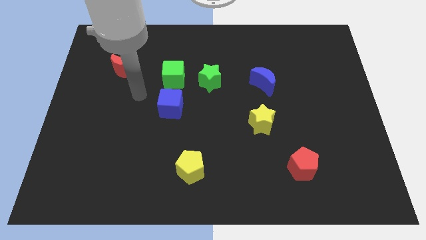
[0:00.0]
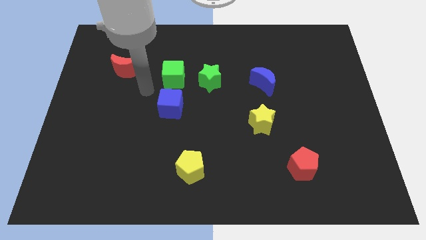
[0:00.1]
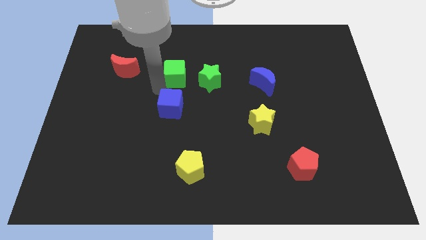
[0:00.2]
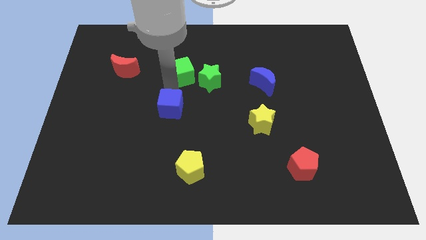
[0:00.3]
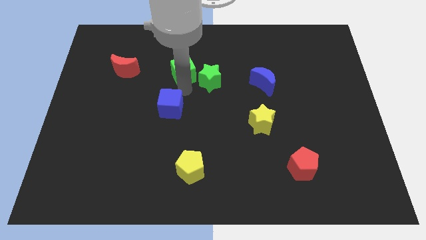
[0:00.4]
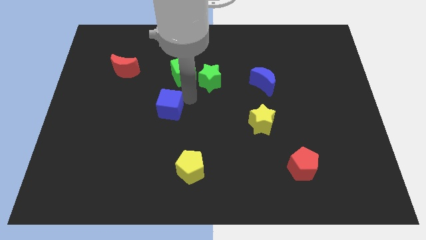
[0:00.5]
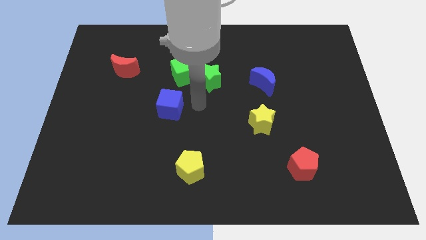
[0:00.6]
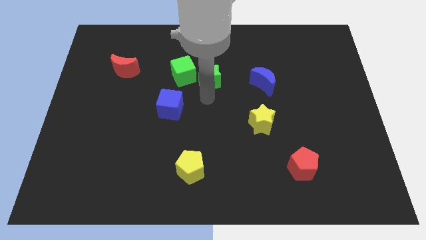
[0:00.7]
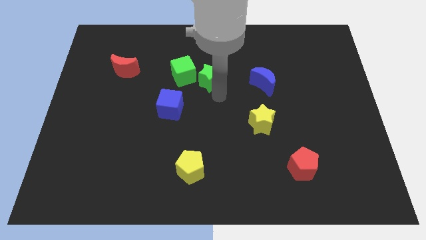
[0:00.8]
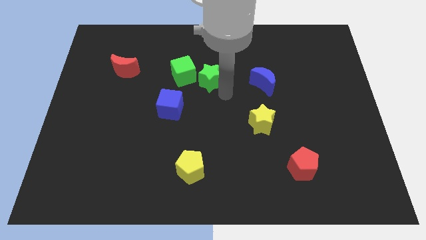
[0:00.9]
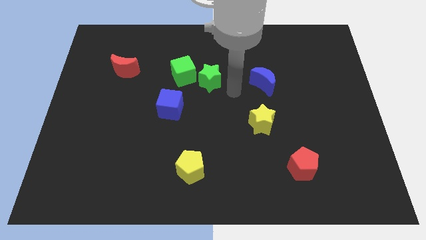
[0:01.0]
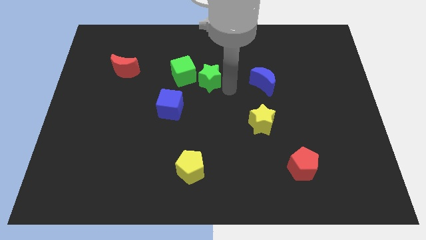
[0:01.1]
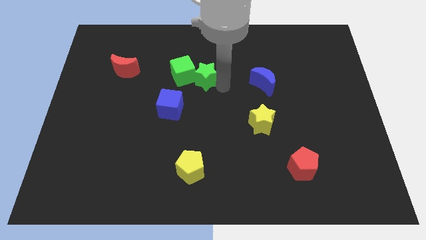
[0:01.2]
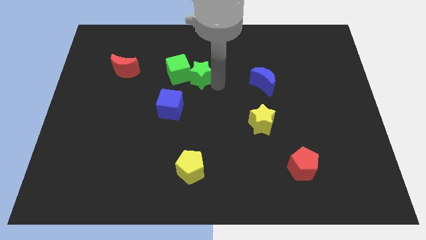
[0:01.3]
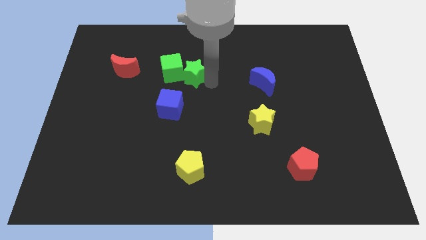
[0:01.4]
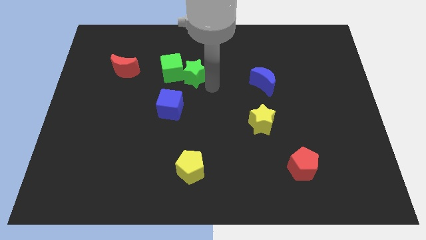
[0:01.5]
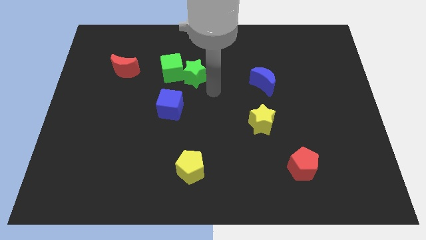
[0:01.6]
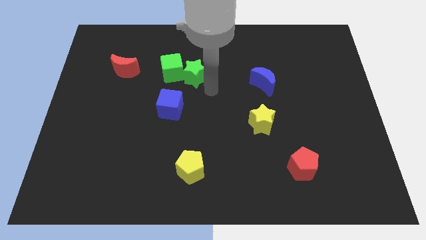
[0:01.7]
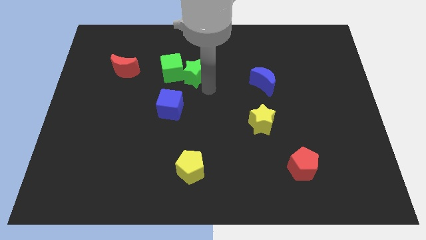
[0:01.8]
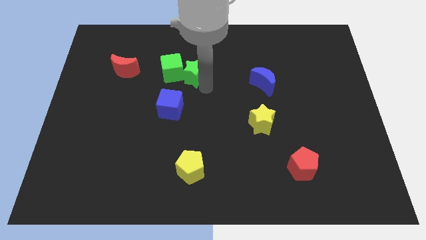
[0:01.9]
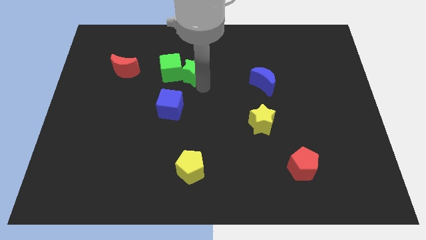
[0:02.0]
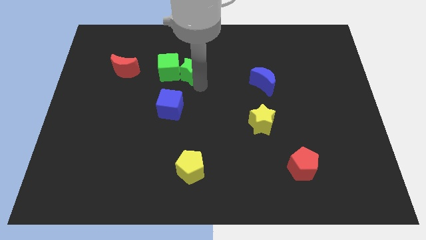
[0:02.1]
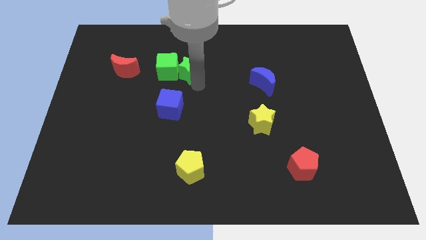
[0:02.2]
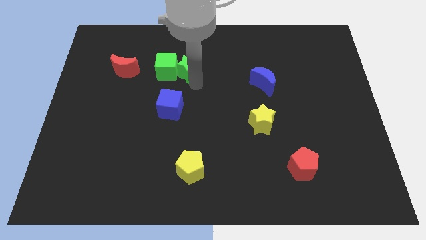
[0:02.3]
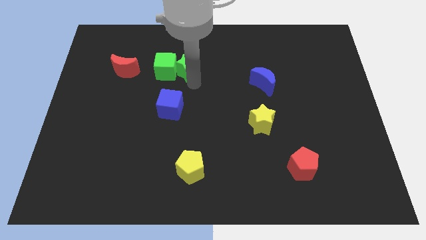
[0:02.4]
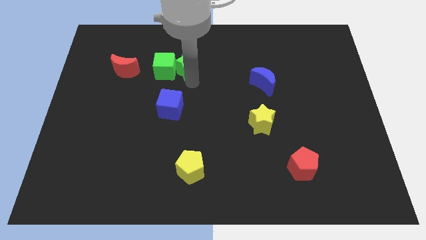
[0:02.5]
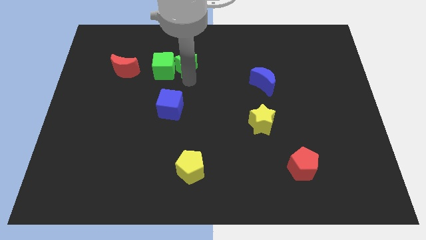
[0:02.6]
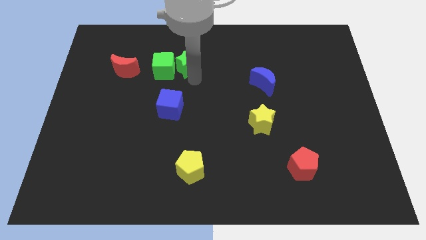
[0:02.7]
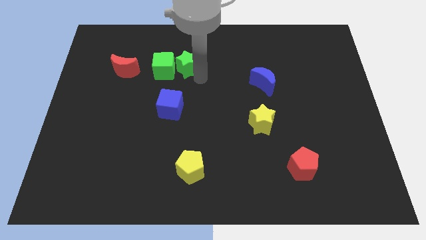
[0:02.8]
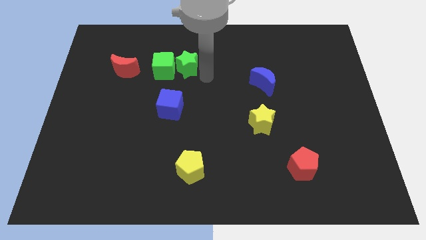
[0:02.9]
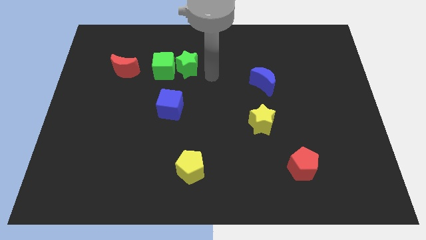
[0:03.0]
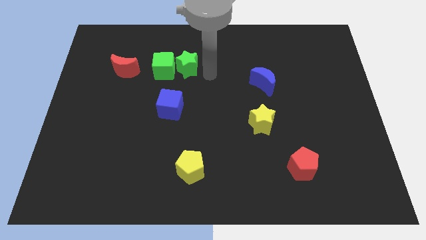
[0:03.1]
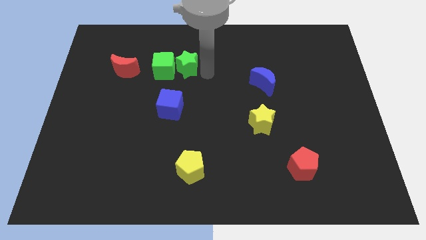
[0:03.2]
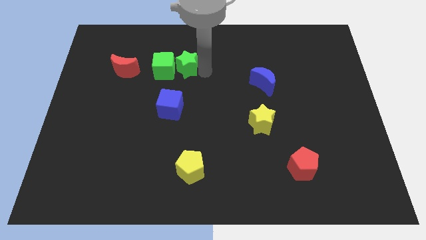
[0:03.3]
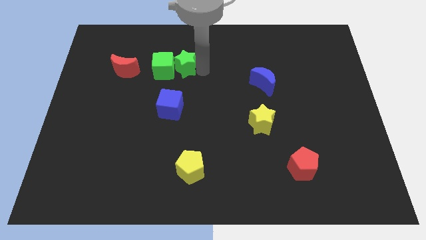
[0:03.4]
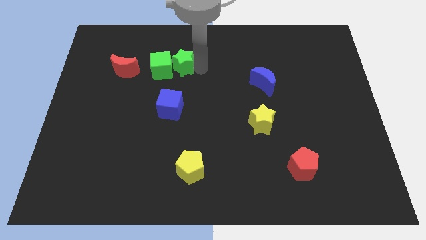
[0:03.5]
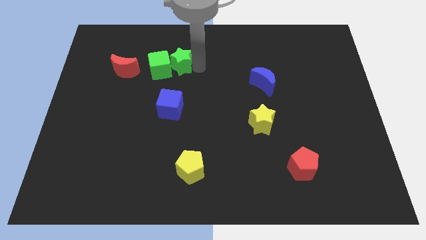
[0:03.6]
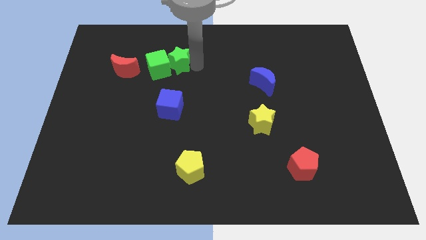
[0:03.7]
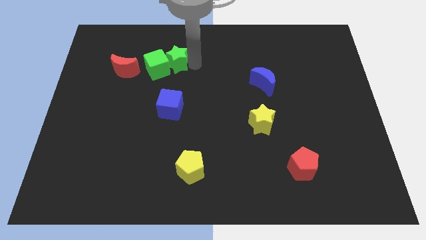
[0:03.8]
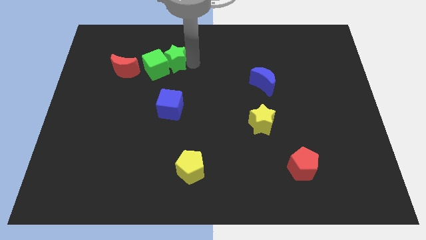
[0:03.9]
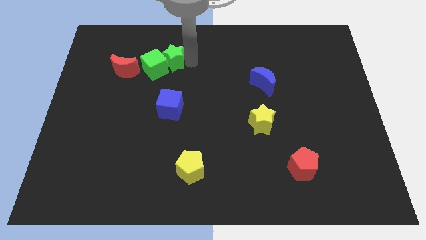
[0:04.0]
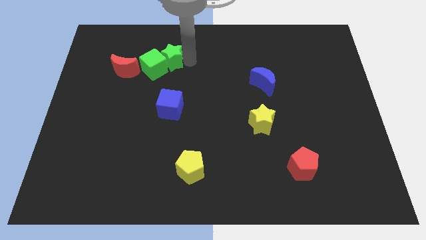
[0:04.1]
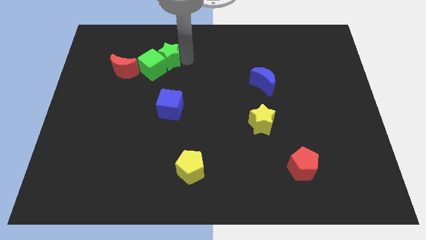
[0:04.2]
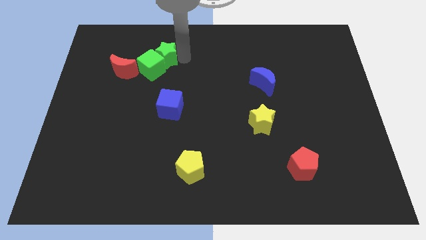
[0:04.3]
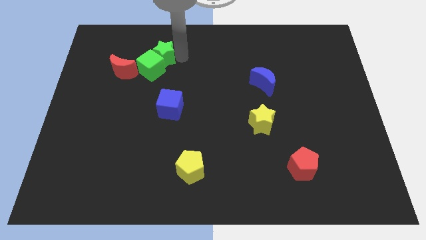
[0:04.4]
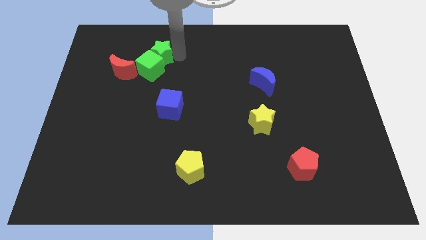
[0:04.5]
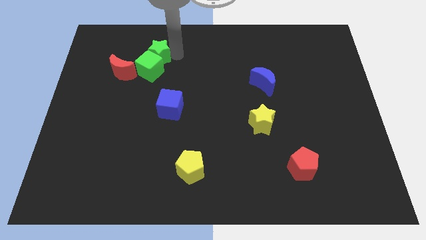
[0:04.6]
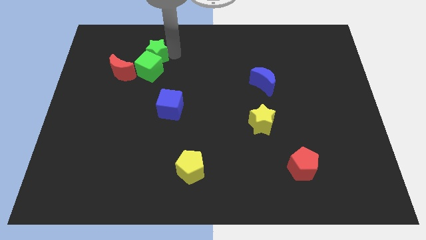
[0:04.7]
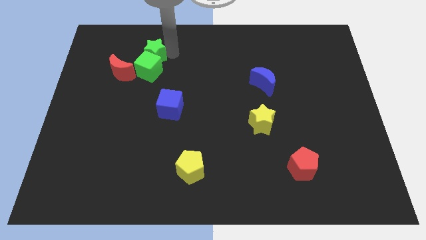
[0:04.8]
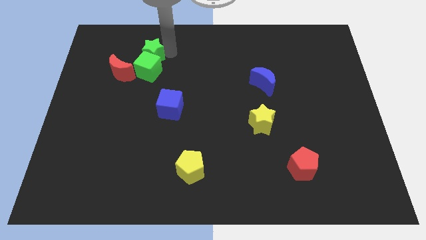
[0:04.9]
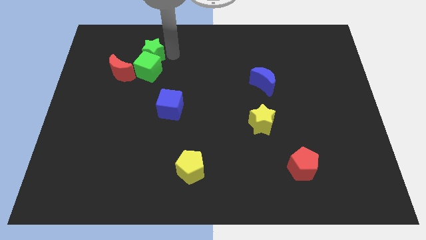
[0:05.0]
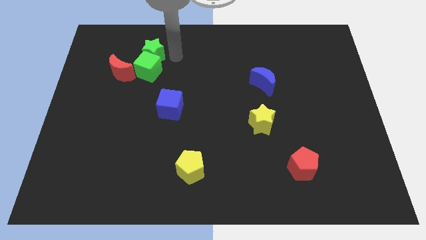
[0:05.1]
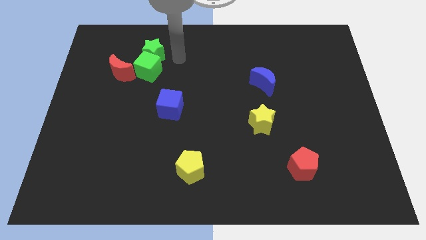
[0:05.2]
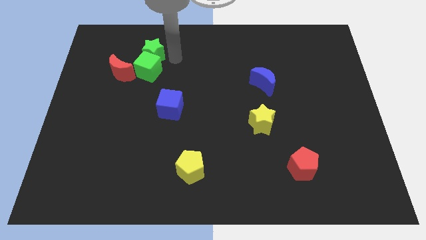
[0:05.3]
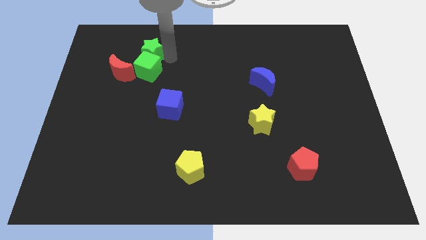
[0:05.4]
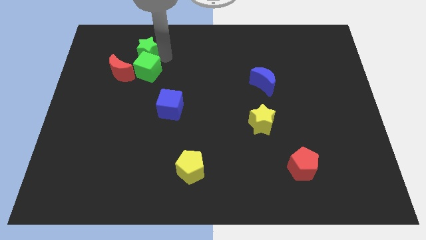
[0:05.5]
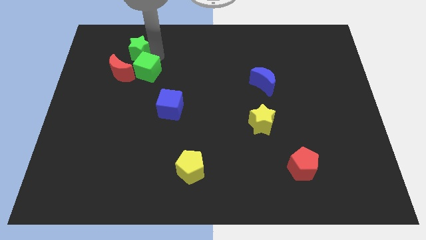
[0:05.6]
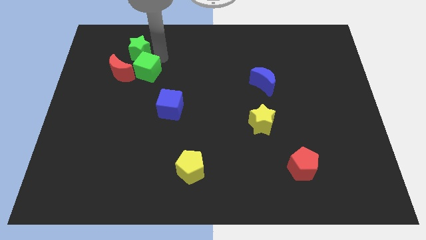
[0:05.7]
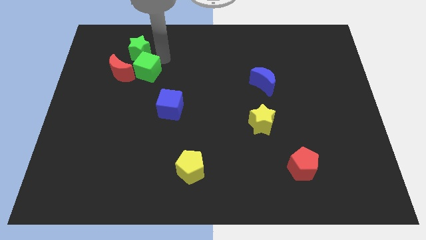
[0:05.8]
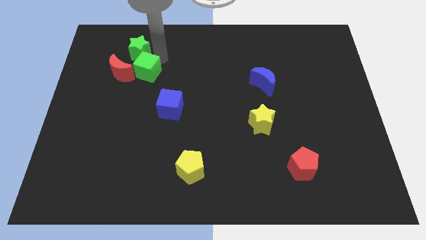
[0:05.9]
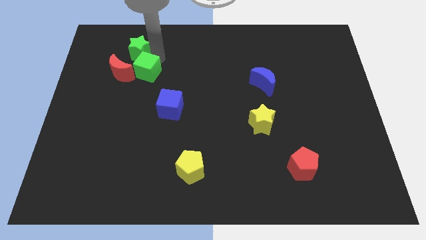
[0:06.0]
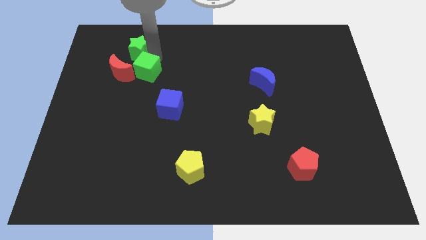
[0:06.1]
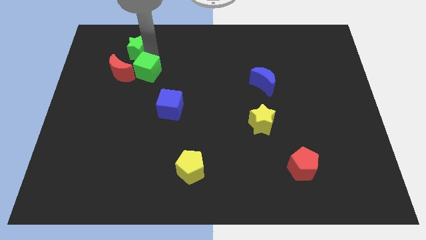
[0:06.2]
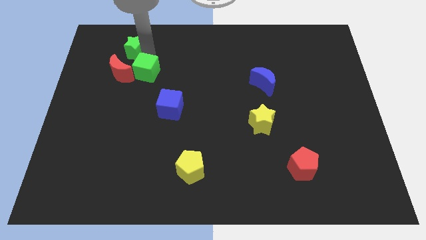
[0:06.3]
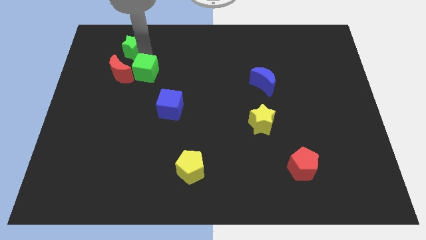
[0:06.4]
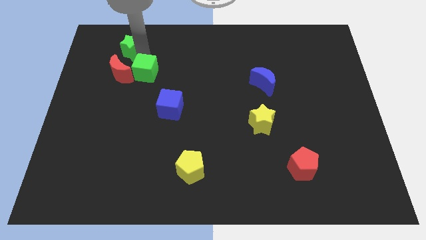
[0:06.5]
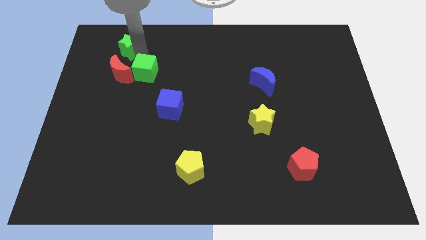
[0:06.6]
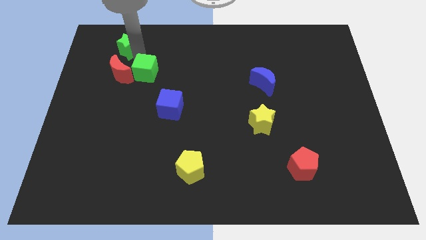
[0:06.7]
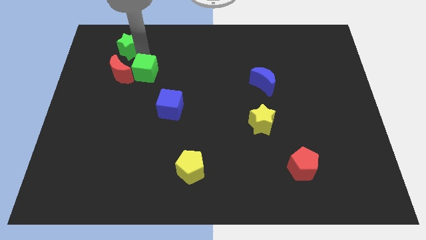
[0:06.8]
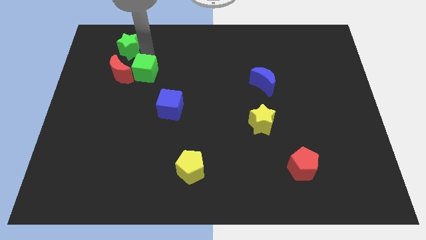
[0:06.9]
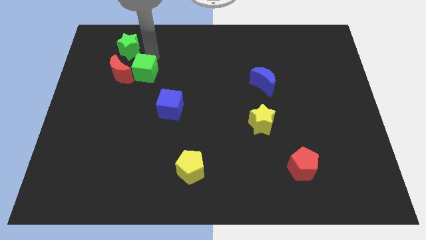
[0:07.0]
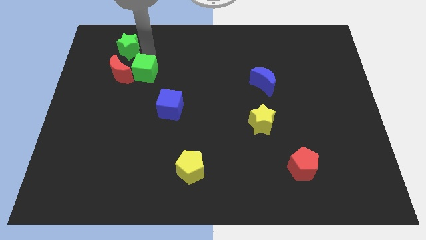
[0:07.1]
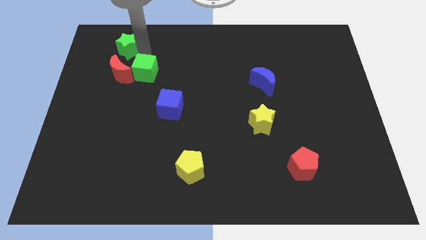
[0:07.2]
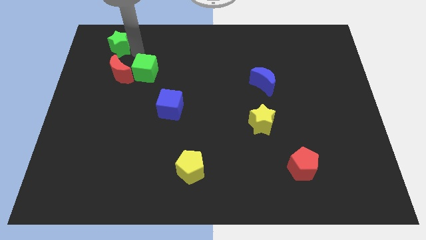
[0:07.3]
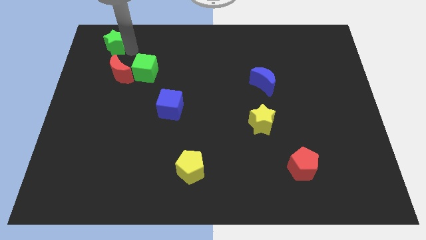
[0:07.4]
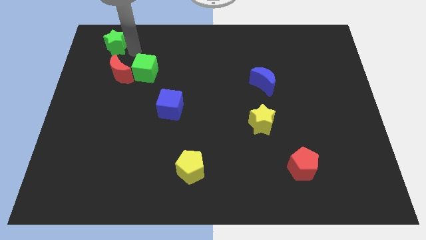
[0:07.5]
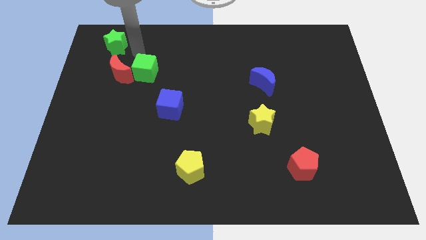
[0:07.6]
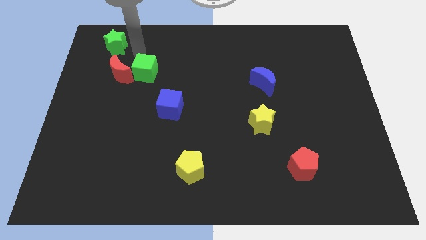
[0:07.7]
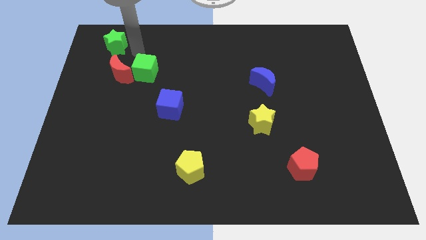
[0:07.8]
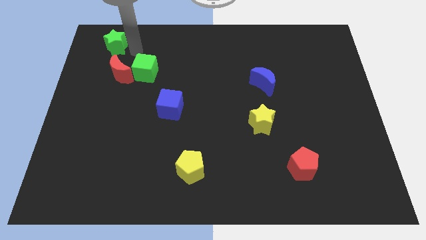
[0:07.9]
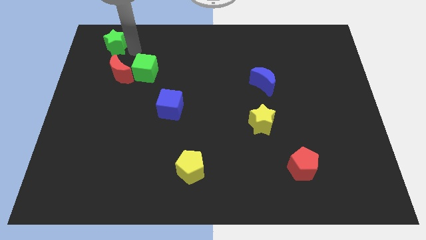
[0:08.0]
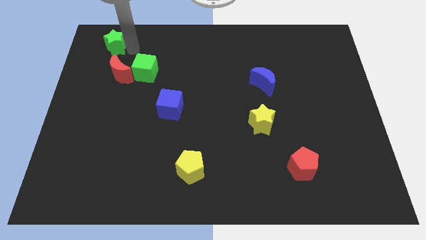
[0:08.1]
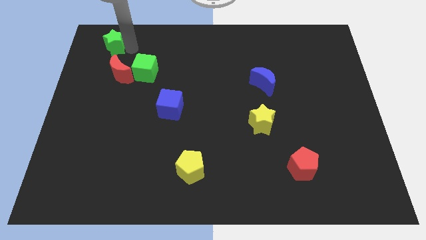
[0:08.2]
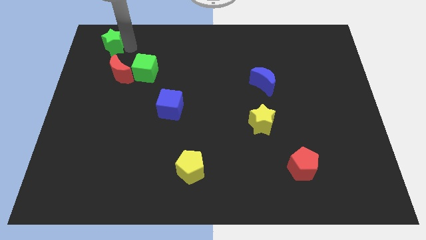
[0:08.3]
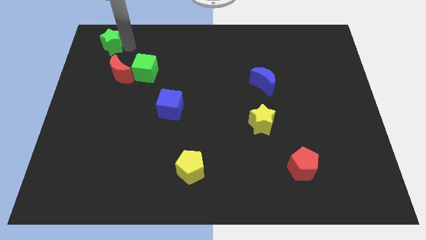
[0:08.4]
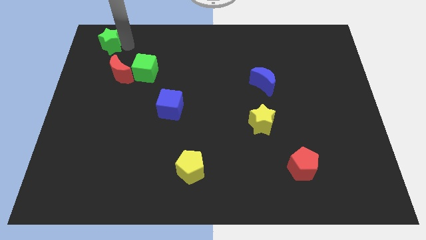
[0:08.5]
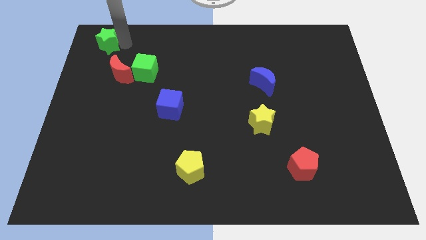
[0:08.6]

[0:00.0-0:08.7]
push the green star to the upper left corner
